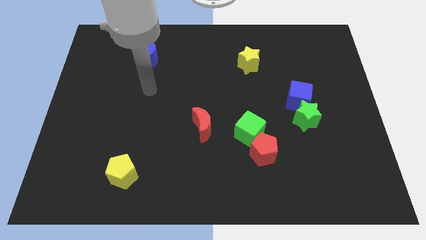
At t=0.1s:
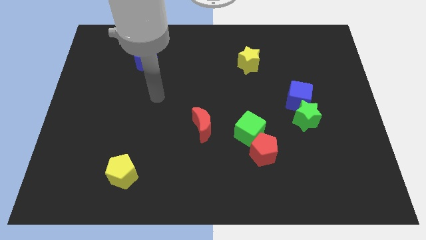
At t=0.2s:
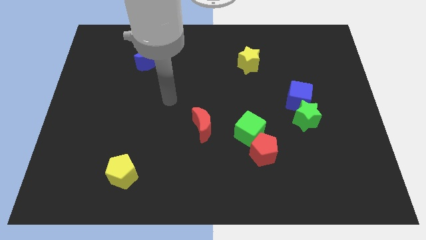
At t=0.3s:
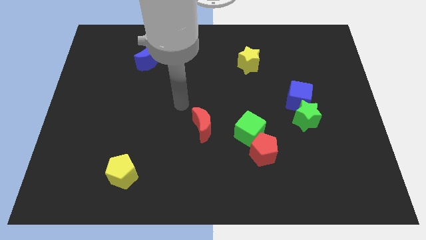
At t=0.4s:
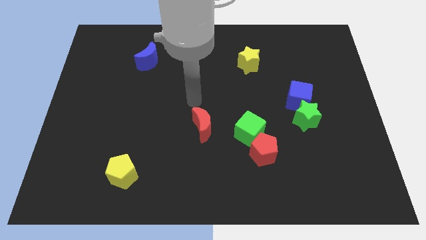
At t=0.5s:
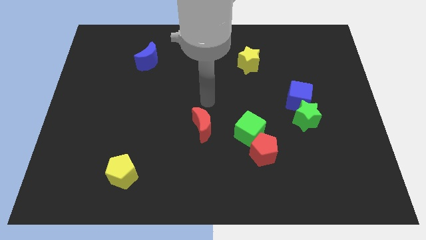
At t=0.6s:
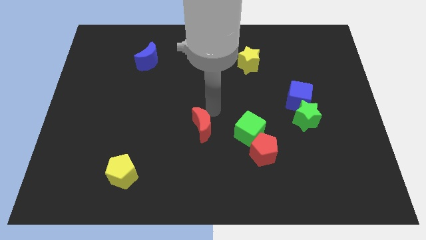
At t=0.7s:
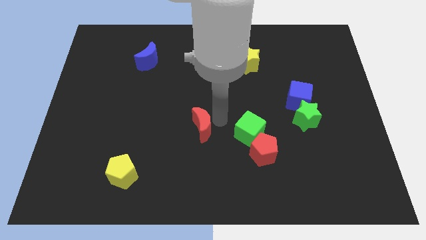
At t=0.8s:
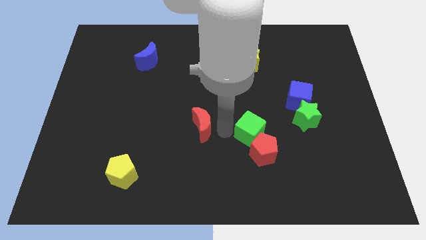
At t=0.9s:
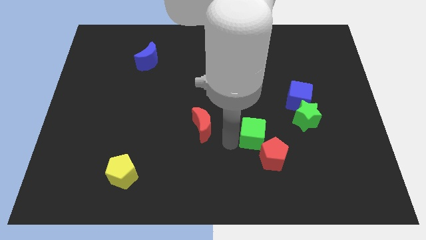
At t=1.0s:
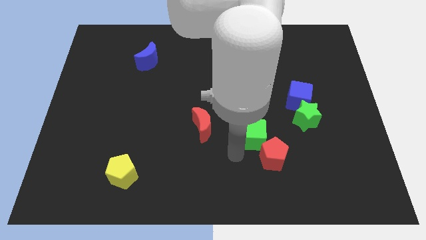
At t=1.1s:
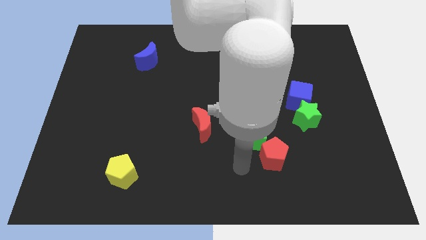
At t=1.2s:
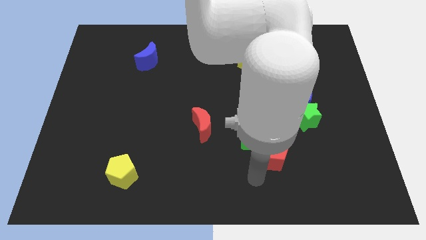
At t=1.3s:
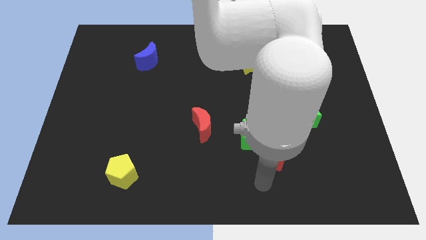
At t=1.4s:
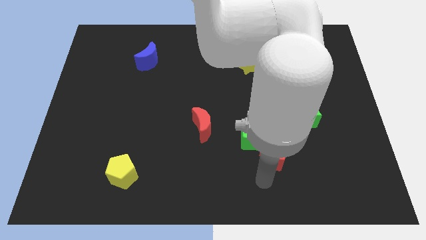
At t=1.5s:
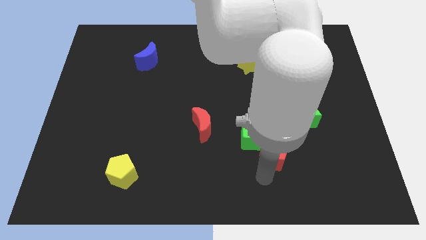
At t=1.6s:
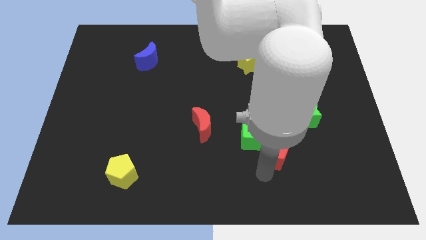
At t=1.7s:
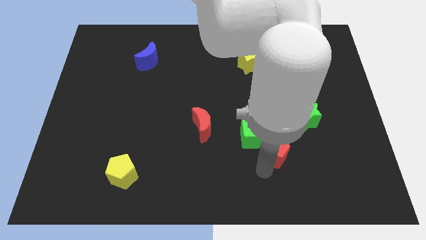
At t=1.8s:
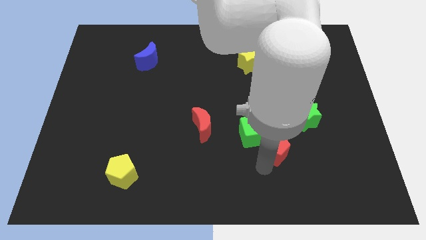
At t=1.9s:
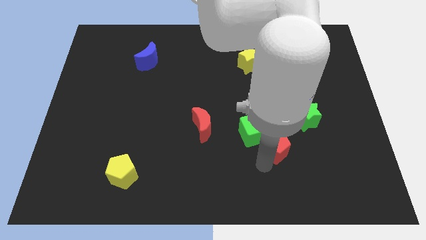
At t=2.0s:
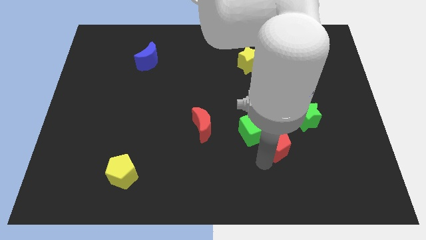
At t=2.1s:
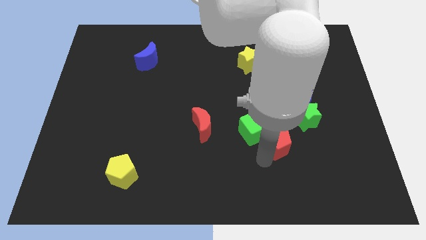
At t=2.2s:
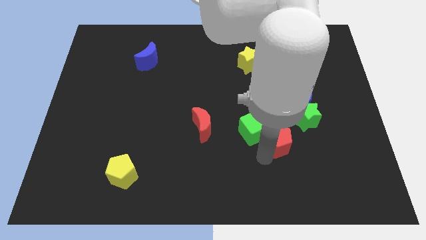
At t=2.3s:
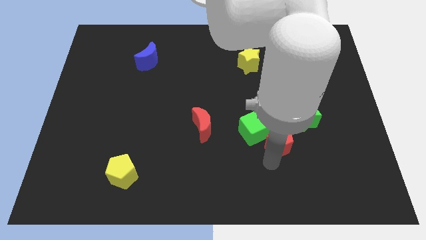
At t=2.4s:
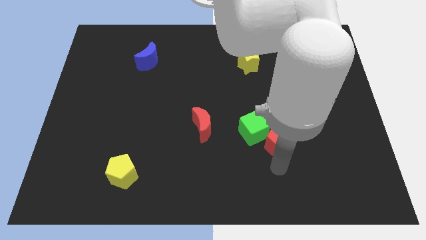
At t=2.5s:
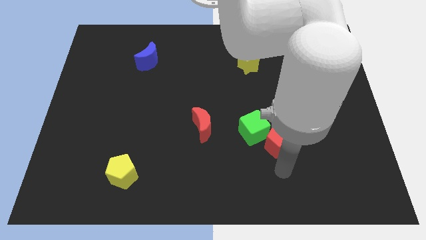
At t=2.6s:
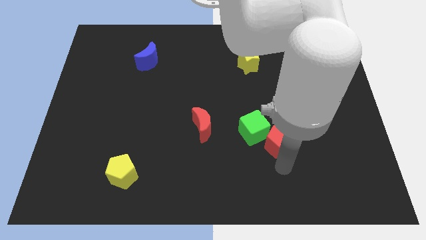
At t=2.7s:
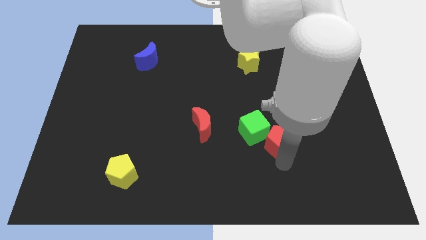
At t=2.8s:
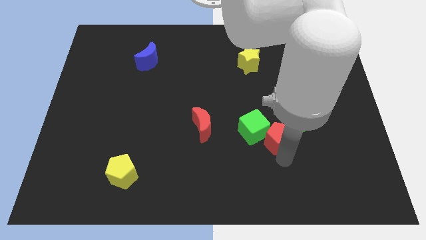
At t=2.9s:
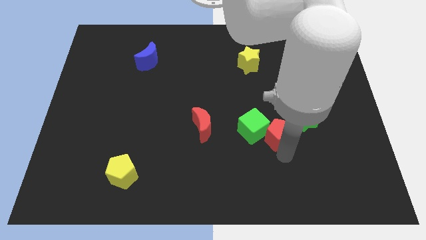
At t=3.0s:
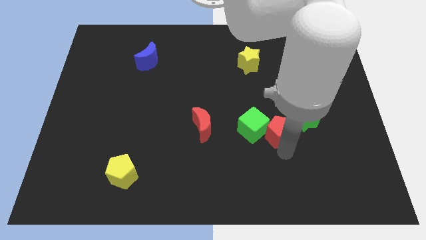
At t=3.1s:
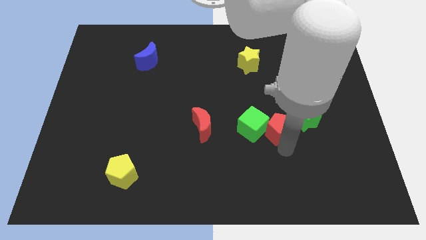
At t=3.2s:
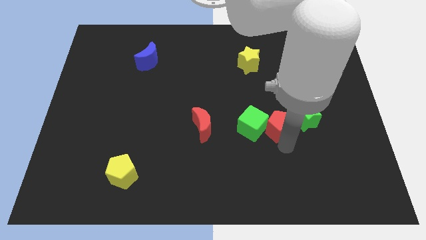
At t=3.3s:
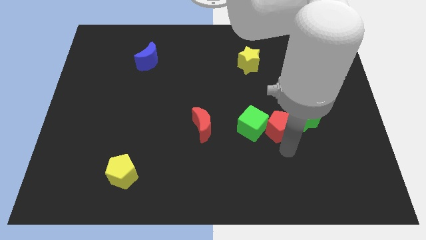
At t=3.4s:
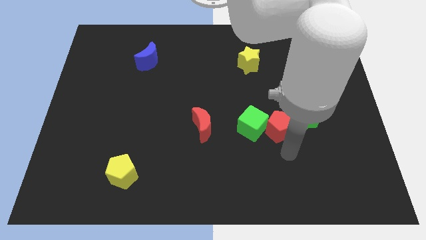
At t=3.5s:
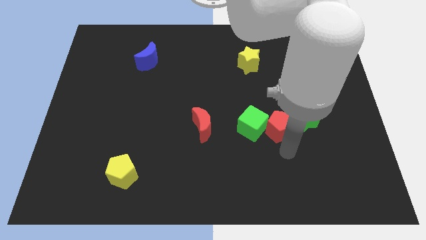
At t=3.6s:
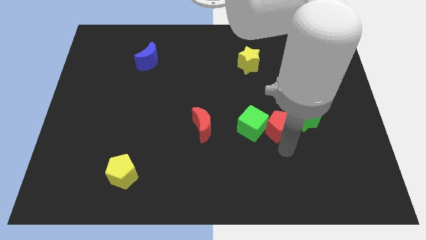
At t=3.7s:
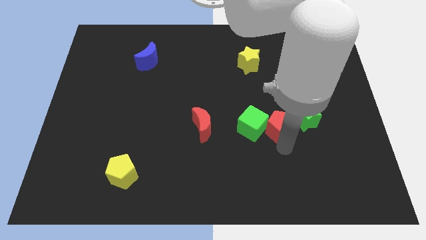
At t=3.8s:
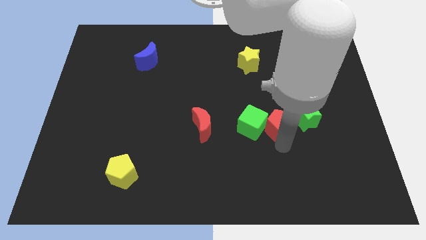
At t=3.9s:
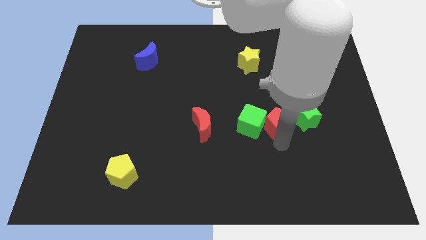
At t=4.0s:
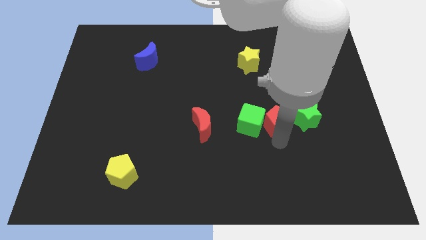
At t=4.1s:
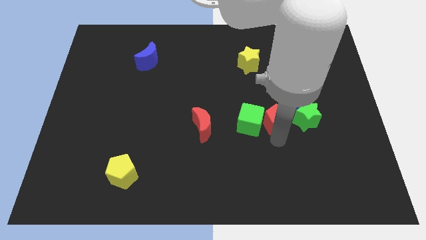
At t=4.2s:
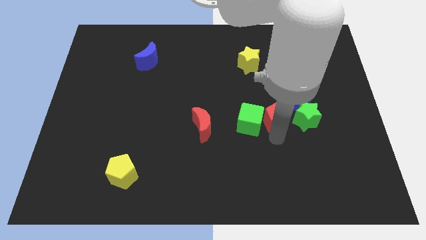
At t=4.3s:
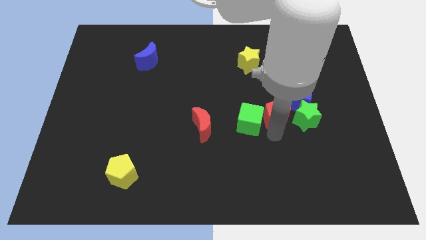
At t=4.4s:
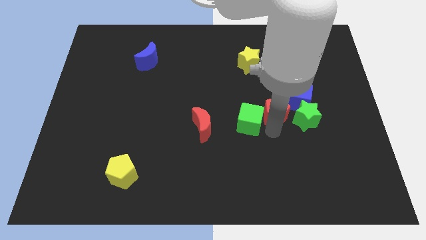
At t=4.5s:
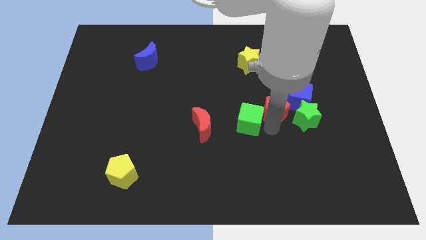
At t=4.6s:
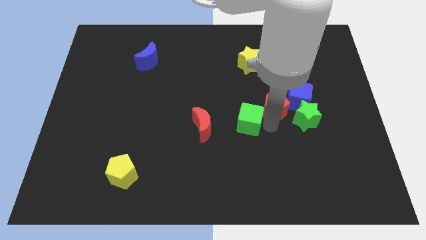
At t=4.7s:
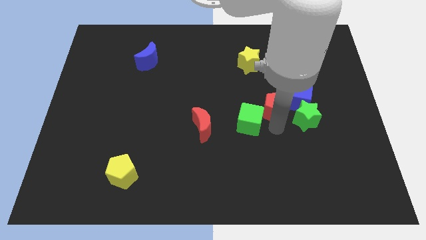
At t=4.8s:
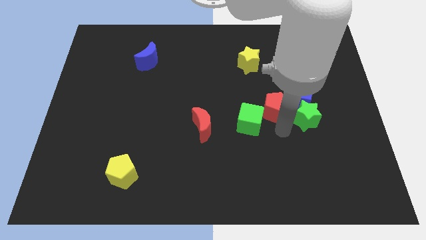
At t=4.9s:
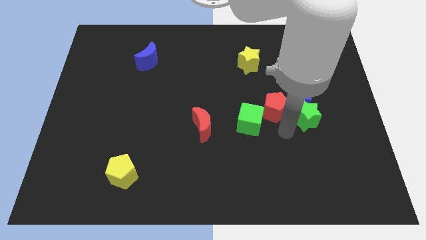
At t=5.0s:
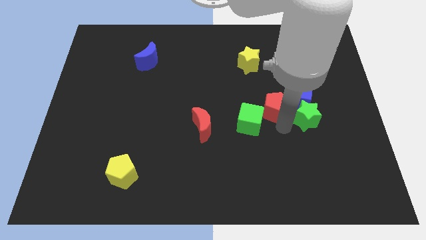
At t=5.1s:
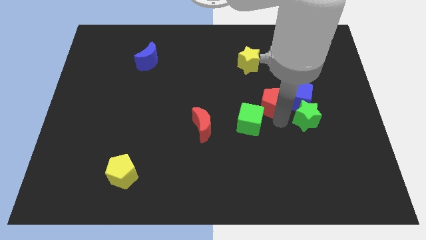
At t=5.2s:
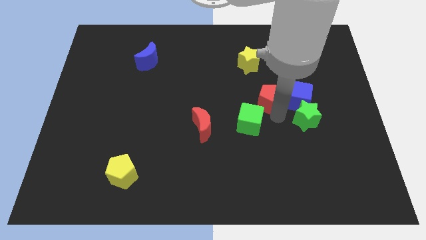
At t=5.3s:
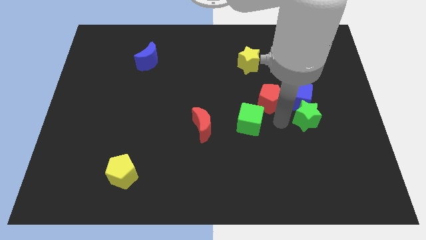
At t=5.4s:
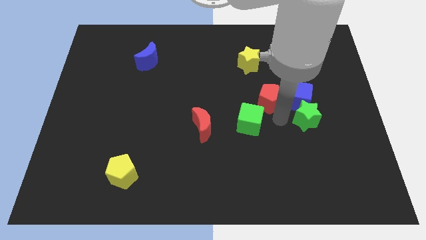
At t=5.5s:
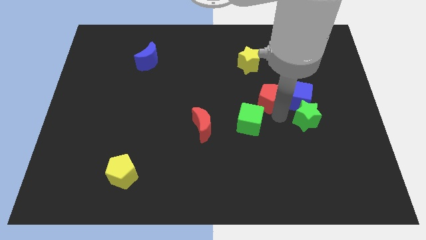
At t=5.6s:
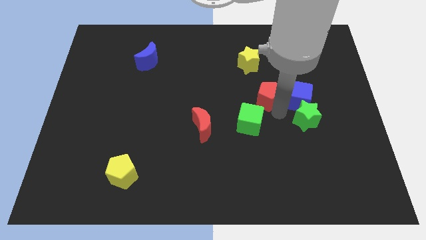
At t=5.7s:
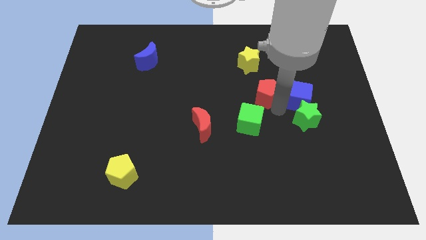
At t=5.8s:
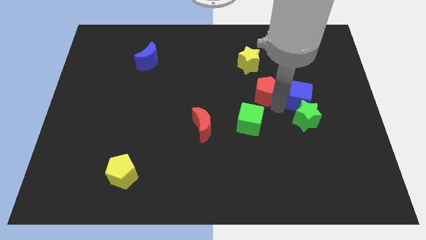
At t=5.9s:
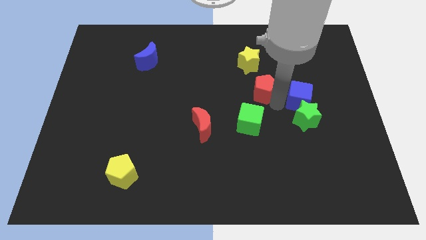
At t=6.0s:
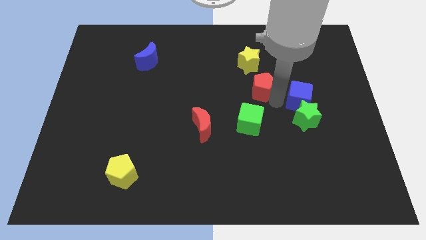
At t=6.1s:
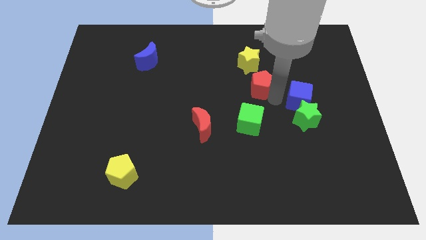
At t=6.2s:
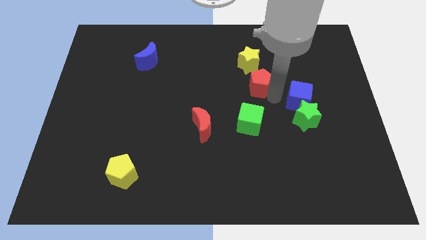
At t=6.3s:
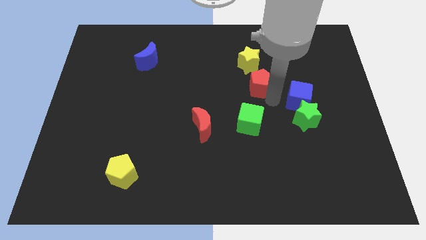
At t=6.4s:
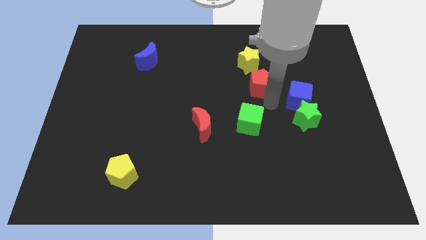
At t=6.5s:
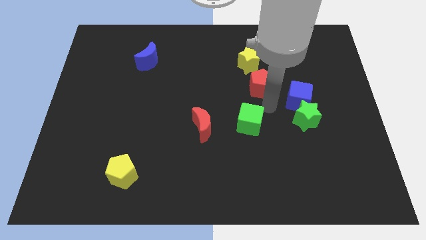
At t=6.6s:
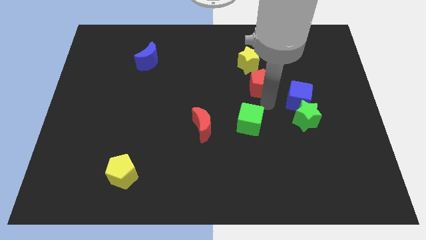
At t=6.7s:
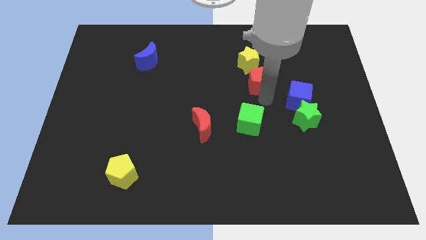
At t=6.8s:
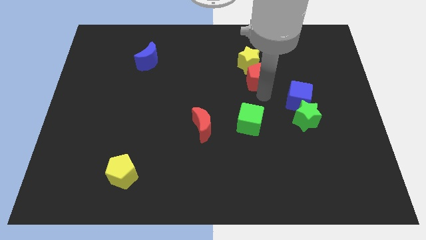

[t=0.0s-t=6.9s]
slide the red pentagon to the yellow star

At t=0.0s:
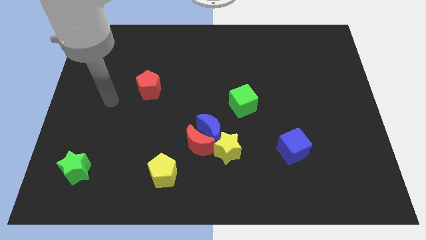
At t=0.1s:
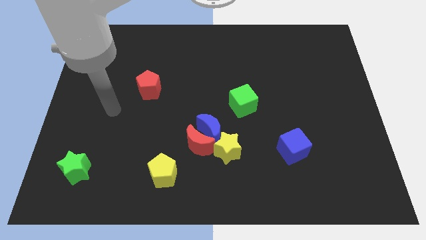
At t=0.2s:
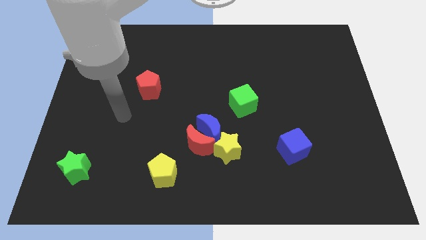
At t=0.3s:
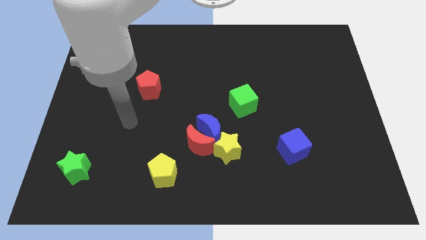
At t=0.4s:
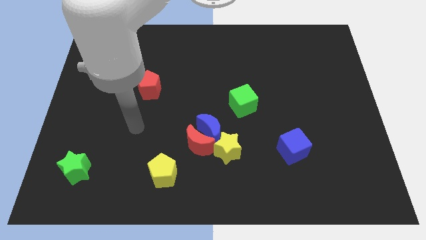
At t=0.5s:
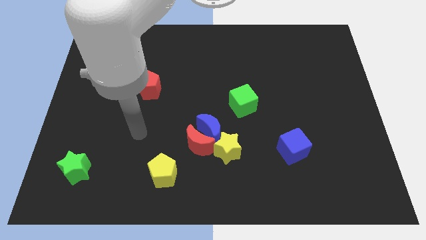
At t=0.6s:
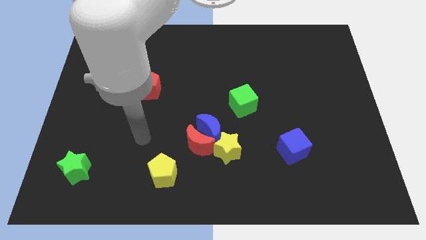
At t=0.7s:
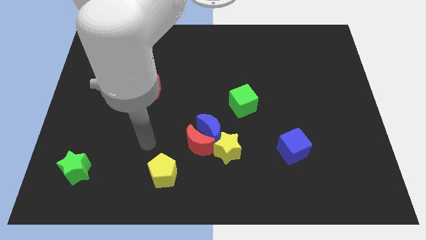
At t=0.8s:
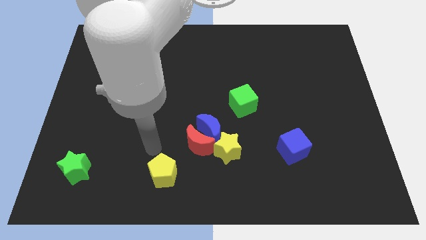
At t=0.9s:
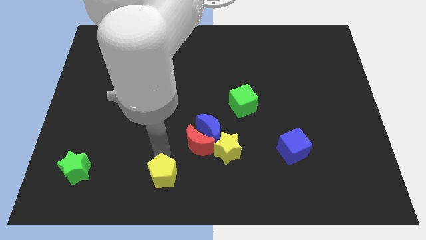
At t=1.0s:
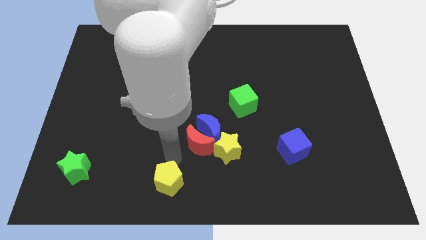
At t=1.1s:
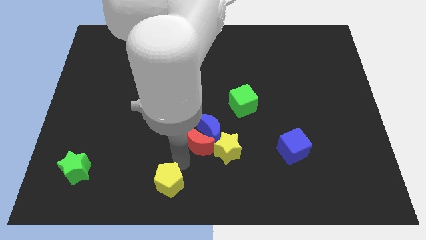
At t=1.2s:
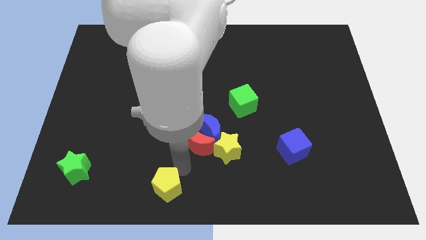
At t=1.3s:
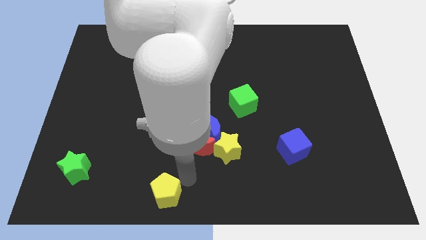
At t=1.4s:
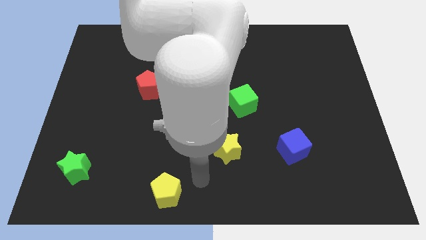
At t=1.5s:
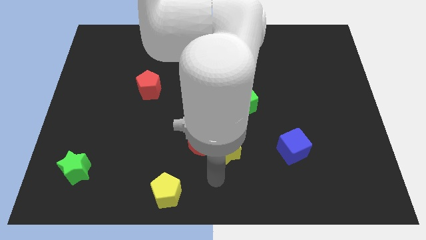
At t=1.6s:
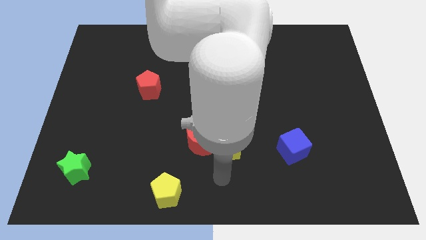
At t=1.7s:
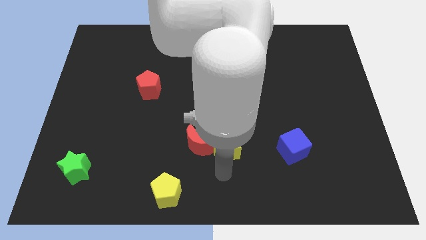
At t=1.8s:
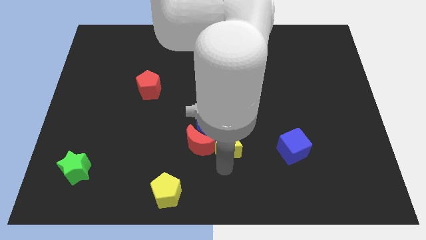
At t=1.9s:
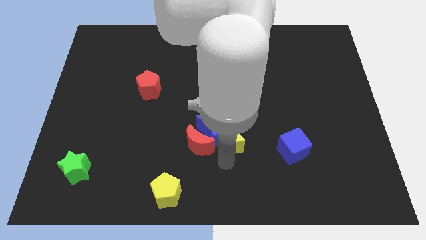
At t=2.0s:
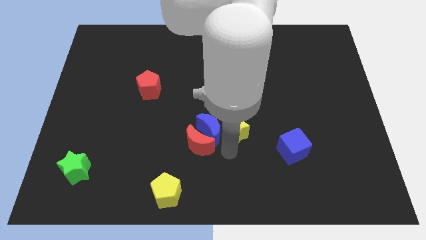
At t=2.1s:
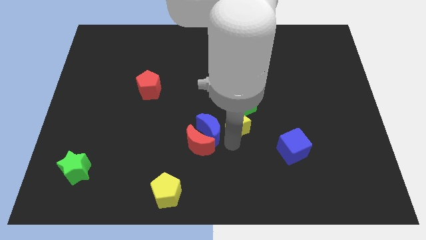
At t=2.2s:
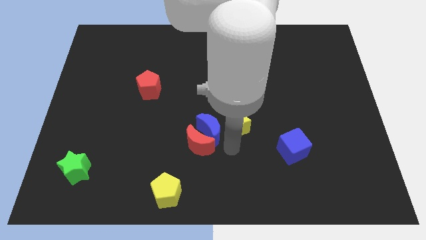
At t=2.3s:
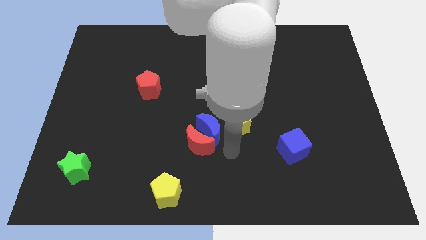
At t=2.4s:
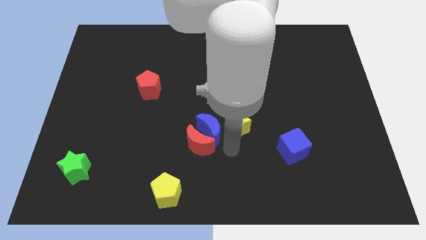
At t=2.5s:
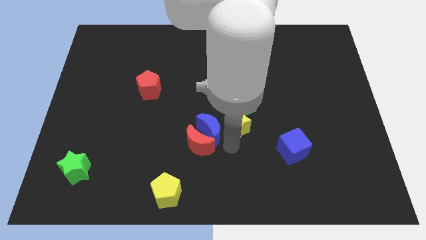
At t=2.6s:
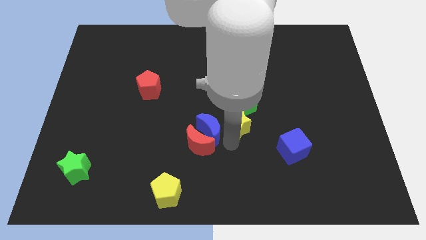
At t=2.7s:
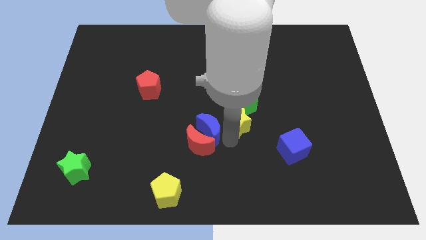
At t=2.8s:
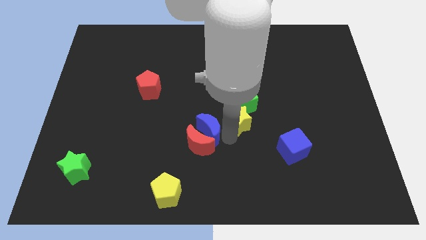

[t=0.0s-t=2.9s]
move the yellow star close to the green cube
